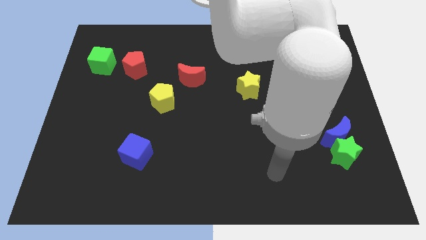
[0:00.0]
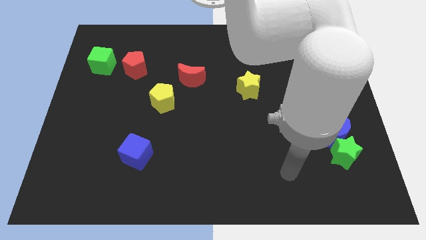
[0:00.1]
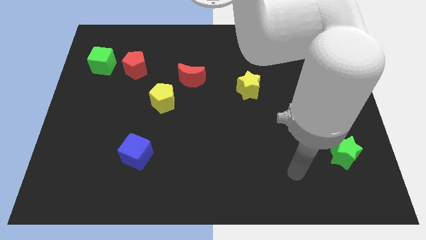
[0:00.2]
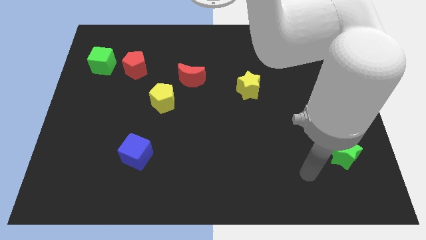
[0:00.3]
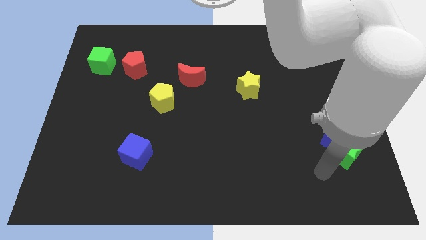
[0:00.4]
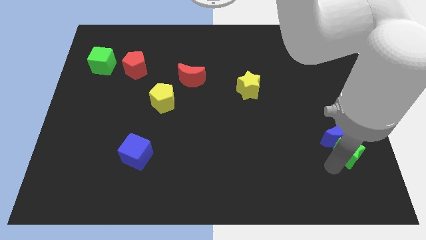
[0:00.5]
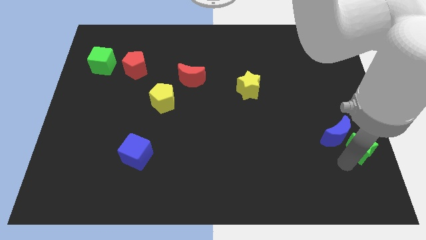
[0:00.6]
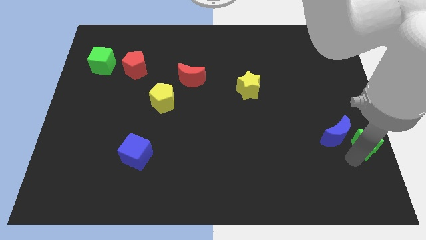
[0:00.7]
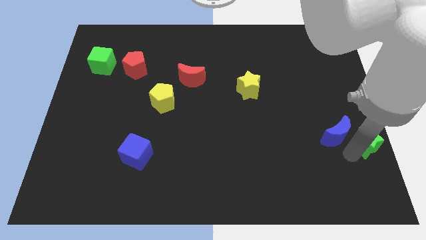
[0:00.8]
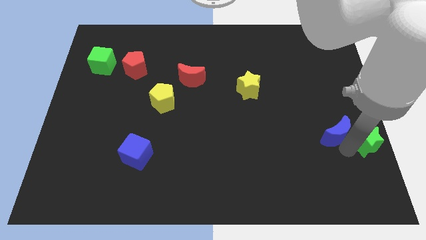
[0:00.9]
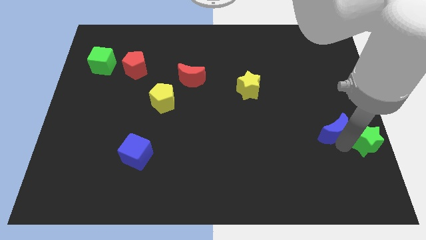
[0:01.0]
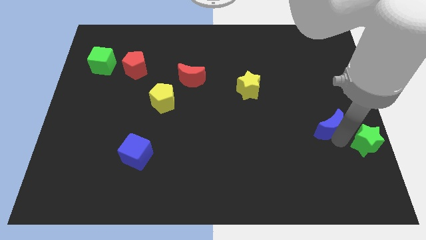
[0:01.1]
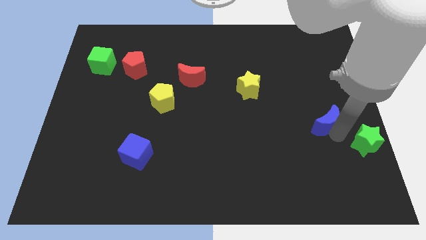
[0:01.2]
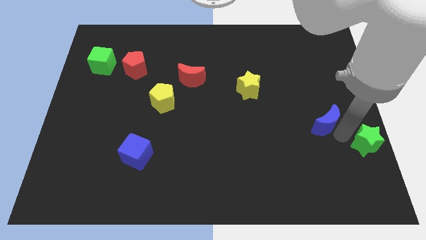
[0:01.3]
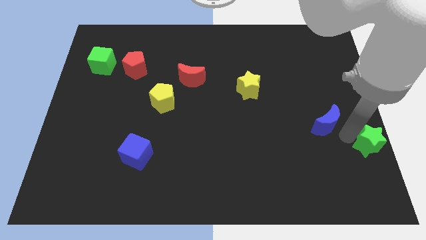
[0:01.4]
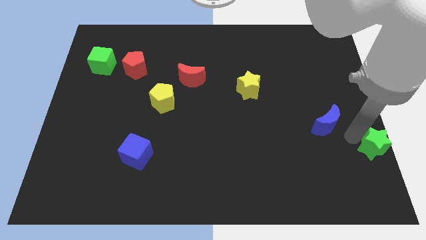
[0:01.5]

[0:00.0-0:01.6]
move the blue moon away from the green star

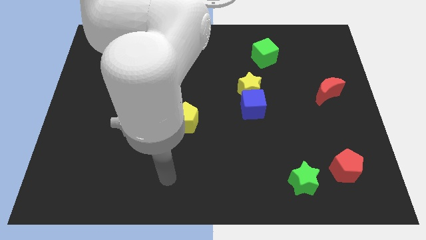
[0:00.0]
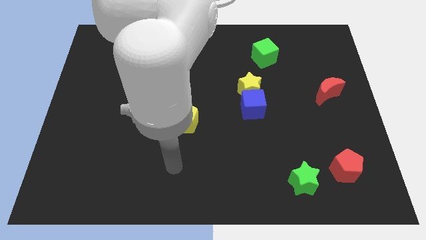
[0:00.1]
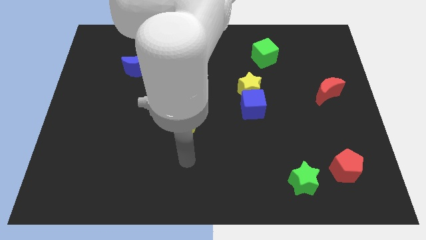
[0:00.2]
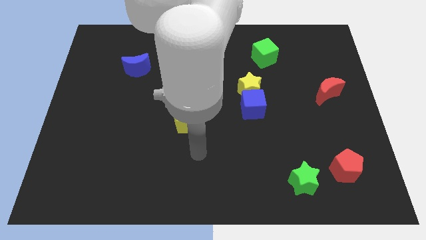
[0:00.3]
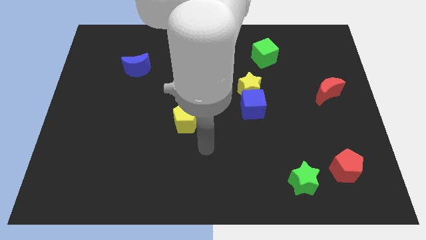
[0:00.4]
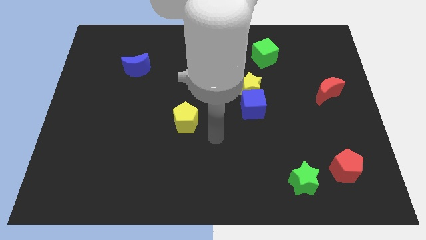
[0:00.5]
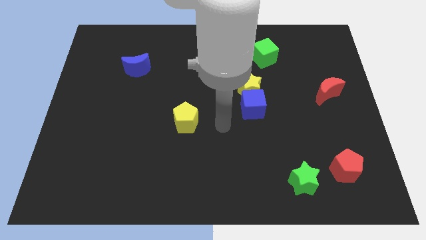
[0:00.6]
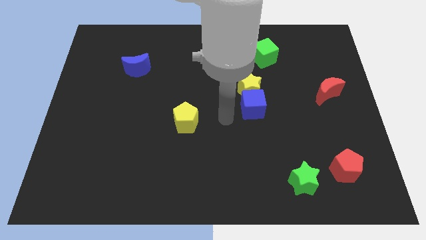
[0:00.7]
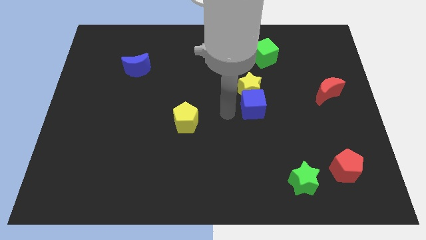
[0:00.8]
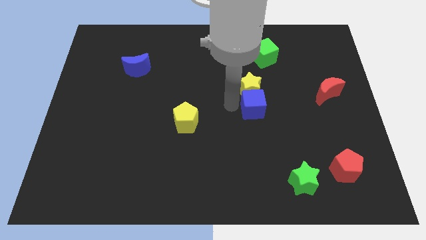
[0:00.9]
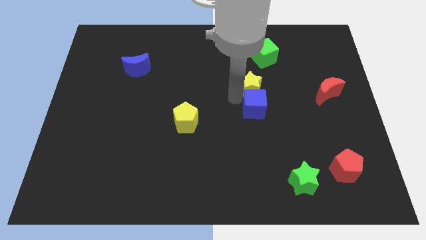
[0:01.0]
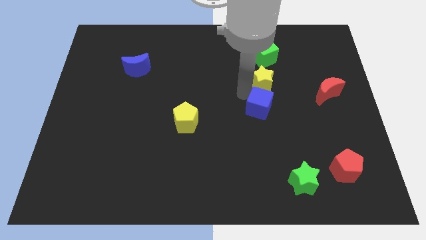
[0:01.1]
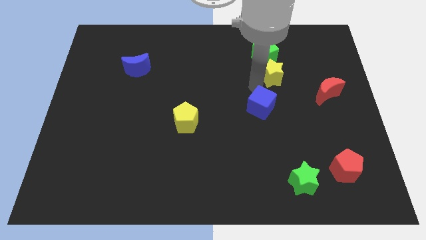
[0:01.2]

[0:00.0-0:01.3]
move the blue cube away from the yellow star

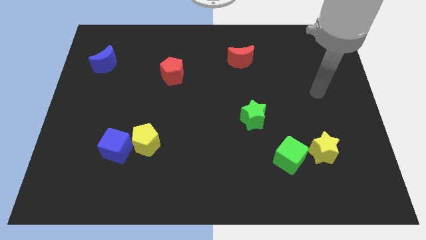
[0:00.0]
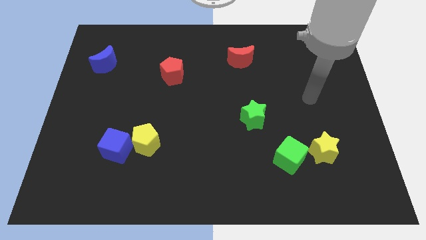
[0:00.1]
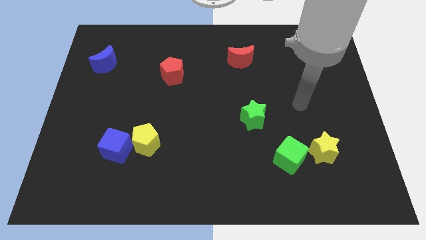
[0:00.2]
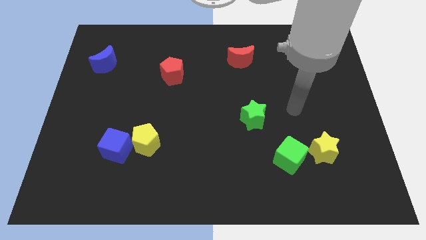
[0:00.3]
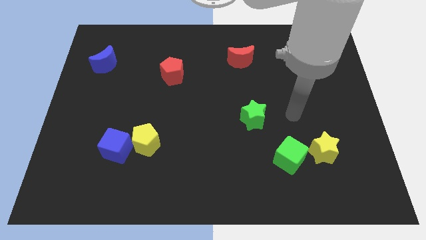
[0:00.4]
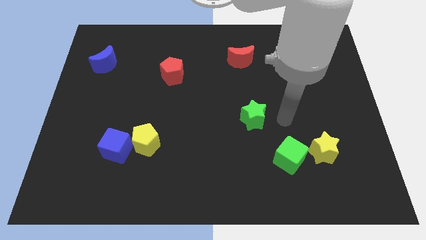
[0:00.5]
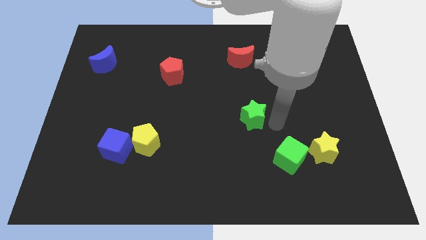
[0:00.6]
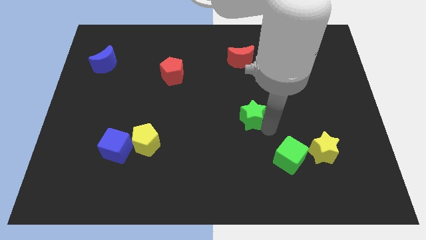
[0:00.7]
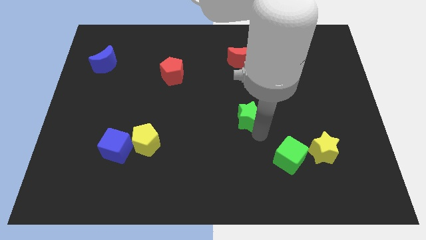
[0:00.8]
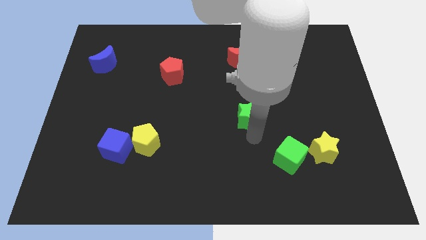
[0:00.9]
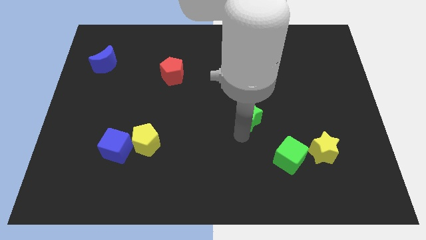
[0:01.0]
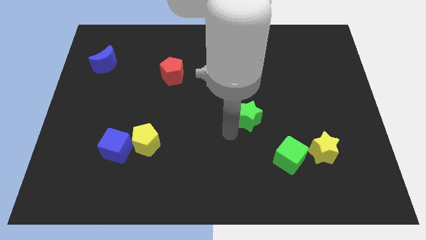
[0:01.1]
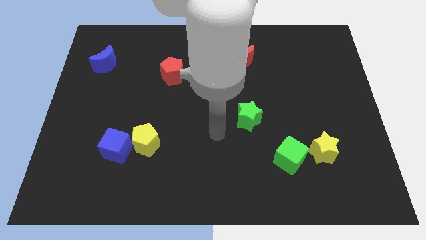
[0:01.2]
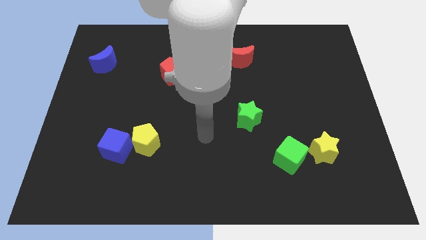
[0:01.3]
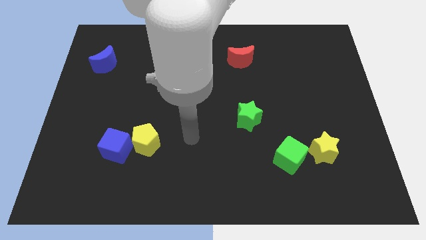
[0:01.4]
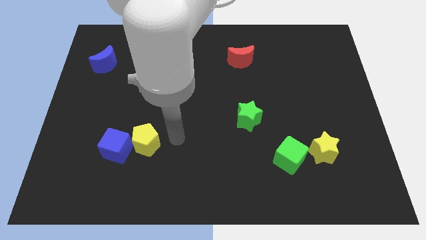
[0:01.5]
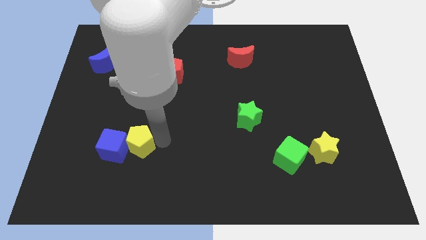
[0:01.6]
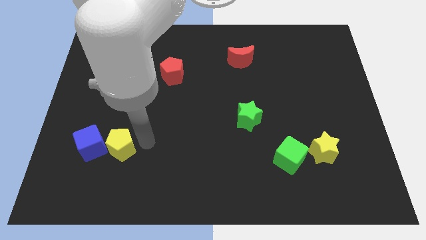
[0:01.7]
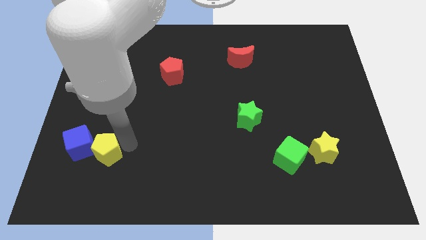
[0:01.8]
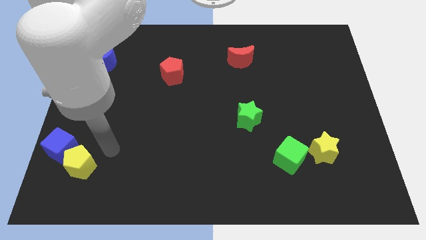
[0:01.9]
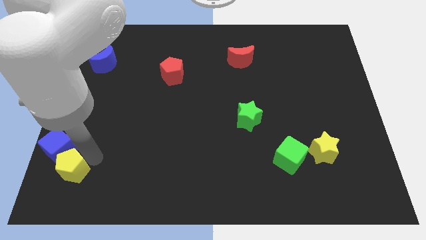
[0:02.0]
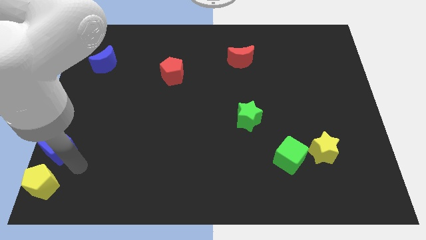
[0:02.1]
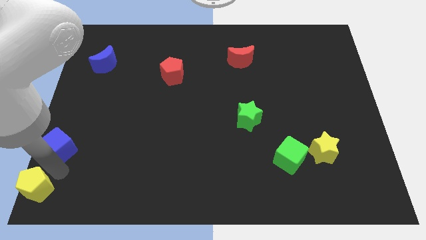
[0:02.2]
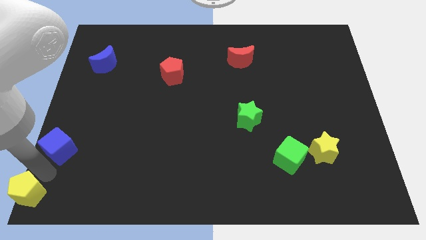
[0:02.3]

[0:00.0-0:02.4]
move the blue cube away from the yellow pentagon

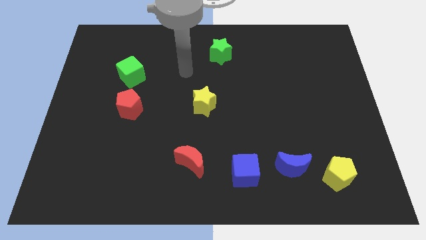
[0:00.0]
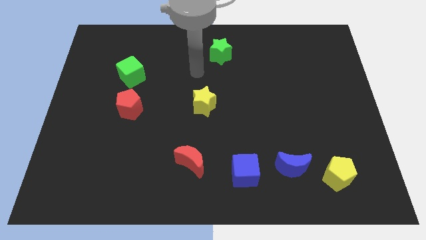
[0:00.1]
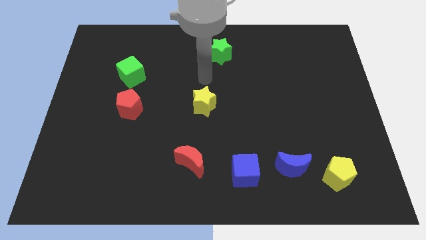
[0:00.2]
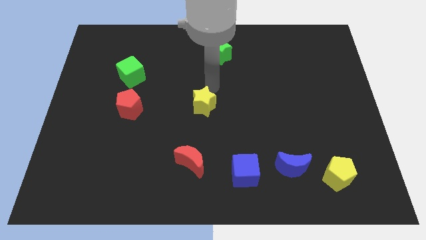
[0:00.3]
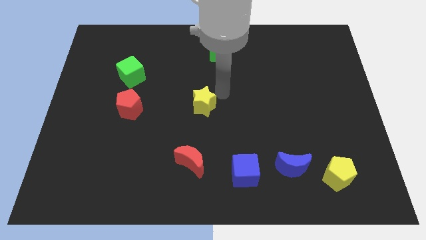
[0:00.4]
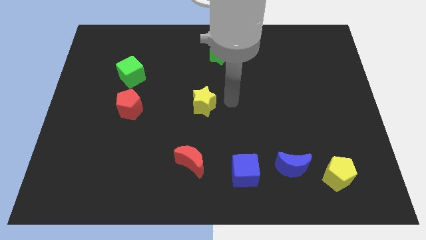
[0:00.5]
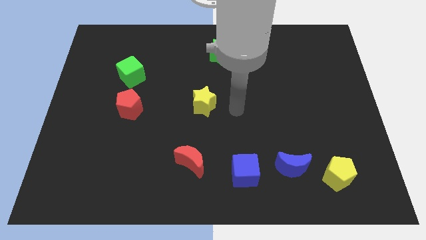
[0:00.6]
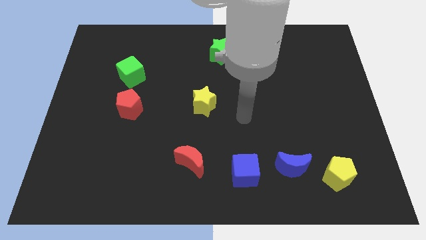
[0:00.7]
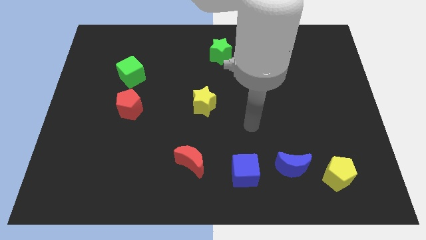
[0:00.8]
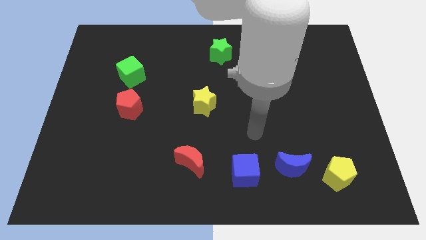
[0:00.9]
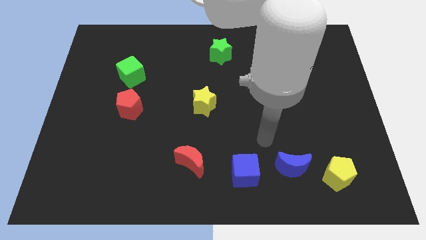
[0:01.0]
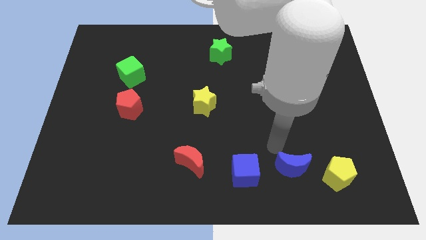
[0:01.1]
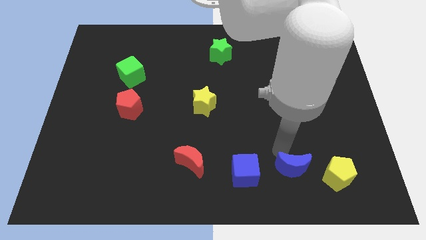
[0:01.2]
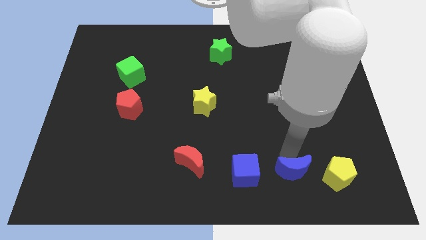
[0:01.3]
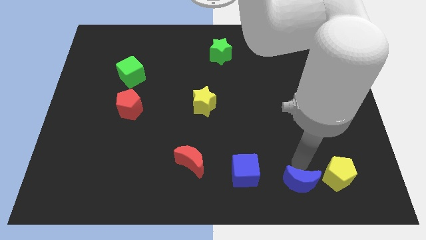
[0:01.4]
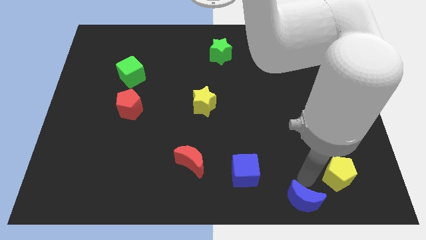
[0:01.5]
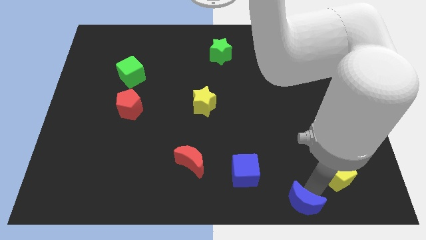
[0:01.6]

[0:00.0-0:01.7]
pull the yellow pentagon apart from the blue moon

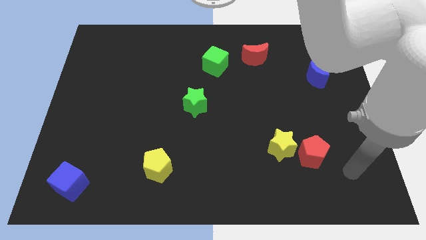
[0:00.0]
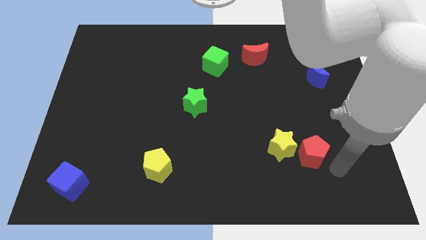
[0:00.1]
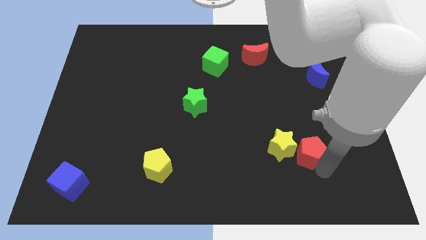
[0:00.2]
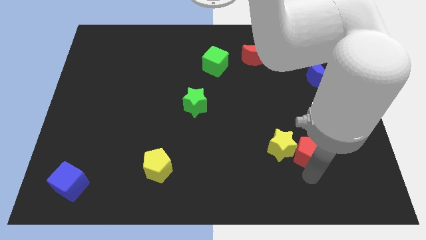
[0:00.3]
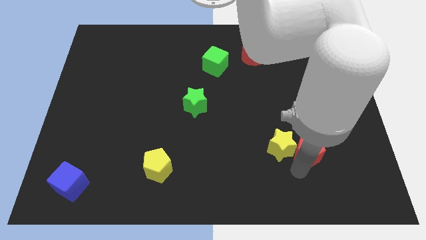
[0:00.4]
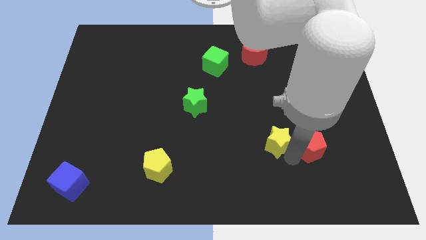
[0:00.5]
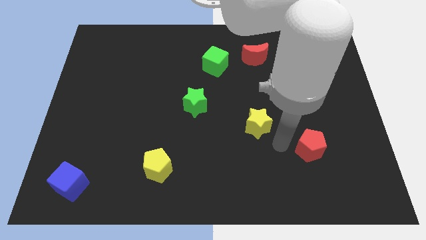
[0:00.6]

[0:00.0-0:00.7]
separate the red pentagon from the yellow star

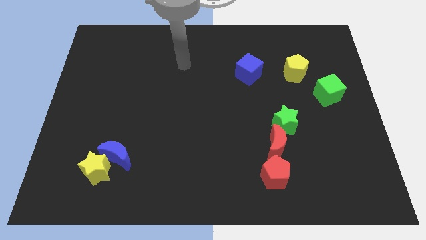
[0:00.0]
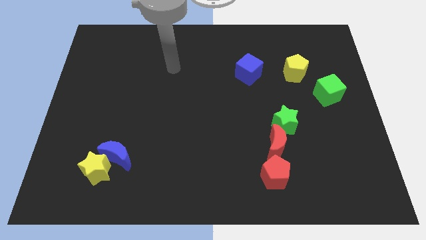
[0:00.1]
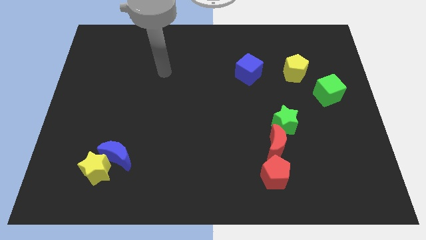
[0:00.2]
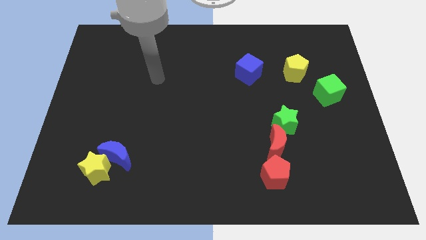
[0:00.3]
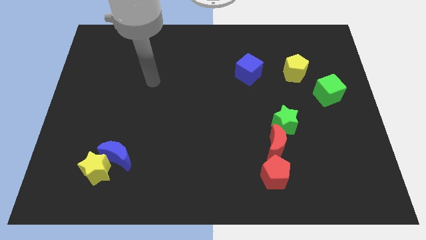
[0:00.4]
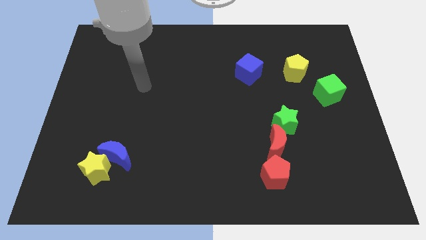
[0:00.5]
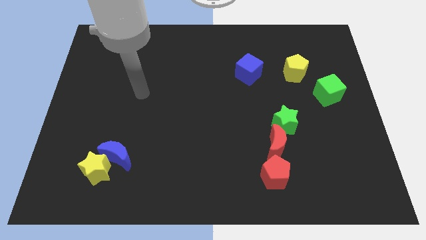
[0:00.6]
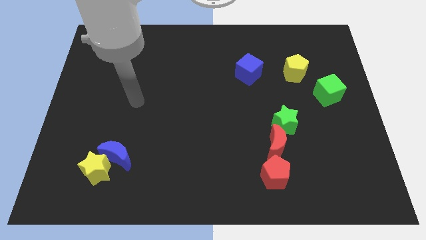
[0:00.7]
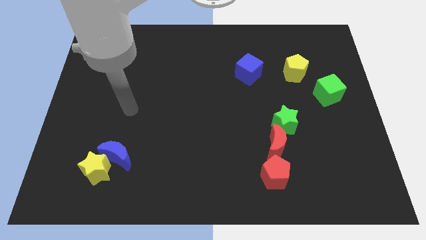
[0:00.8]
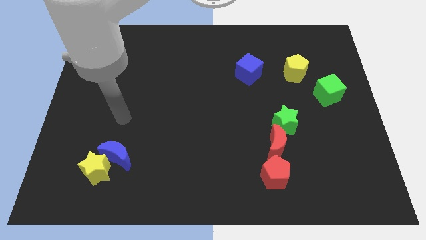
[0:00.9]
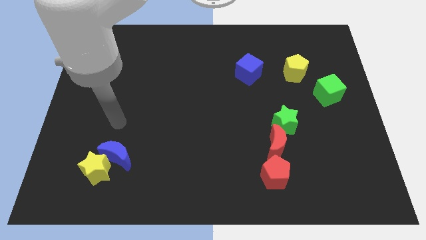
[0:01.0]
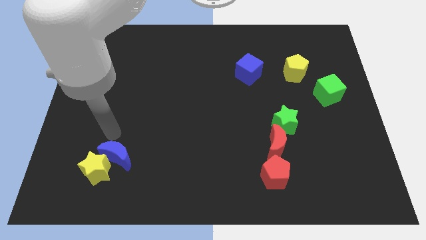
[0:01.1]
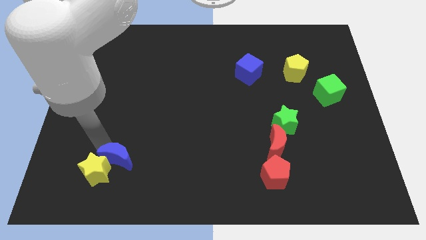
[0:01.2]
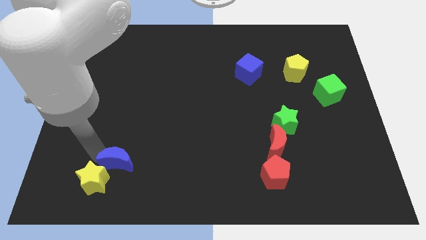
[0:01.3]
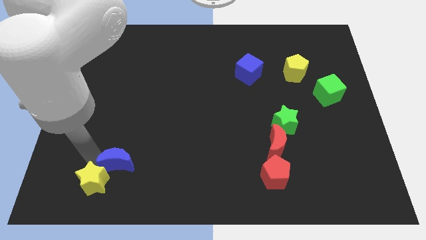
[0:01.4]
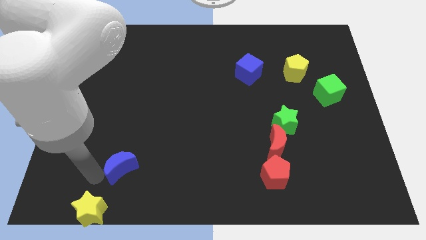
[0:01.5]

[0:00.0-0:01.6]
pull the blue moon apart from the yellow star
